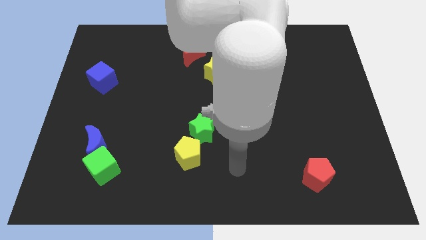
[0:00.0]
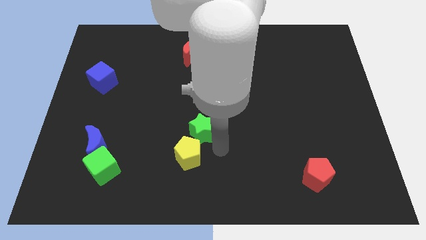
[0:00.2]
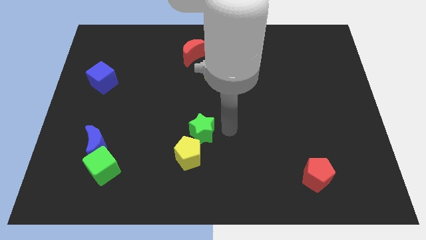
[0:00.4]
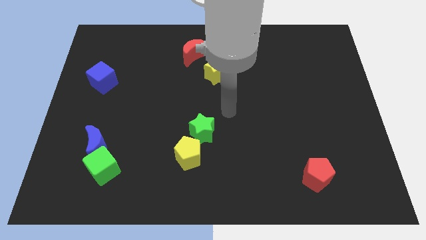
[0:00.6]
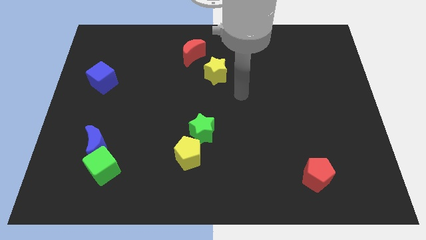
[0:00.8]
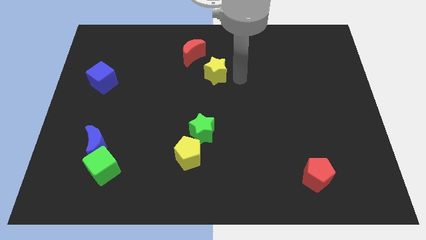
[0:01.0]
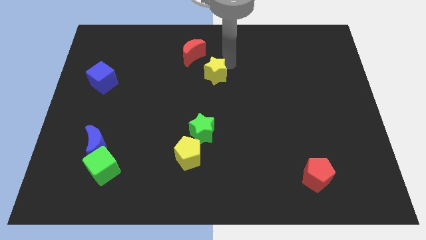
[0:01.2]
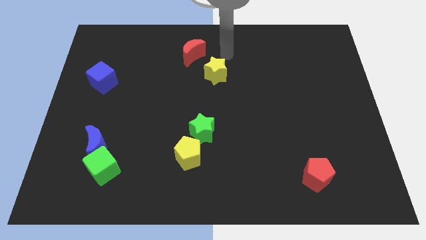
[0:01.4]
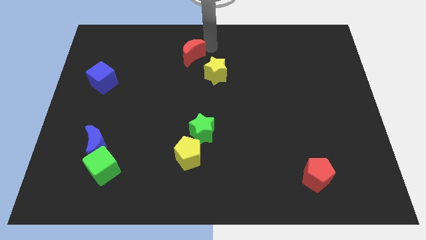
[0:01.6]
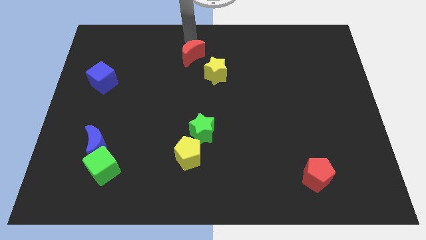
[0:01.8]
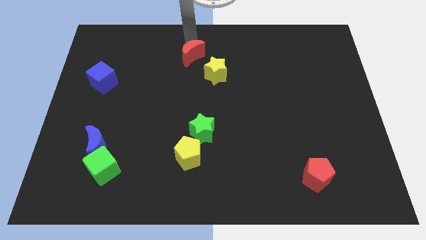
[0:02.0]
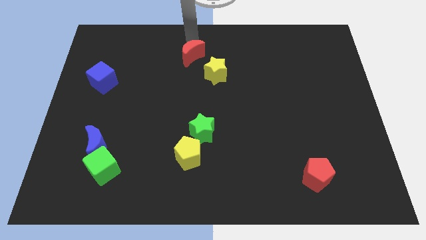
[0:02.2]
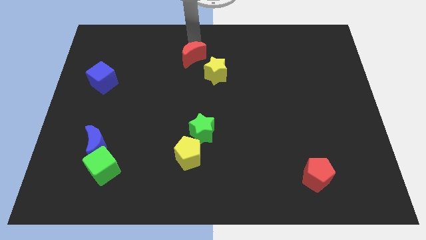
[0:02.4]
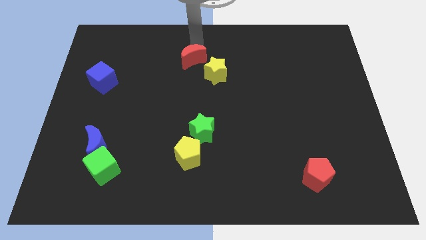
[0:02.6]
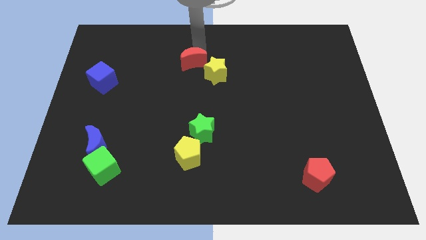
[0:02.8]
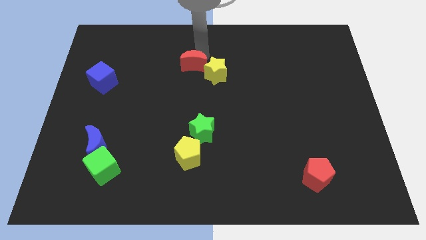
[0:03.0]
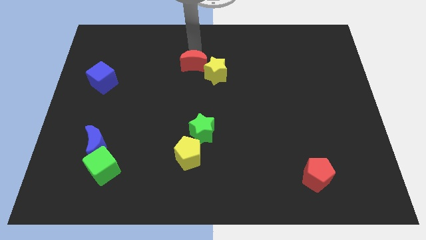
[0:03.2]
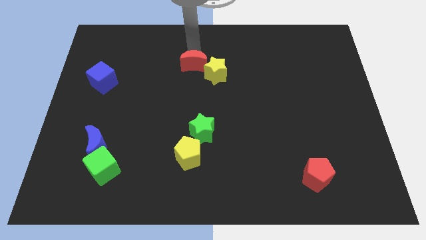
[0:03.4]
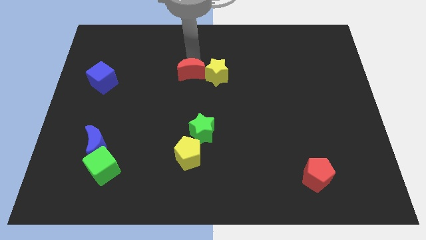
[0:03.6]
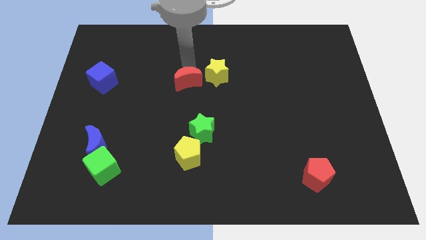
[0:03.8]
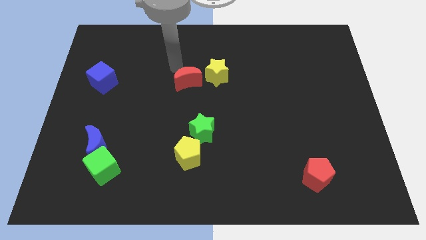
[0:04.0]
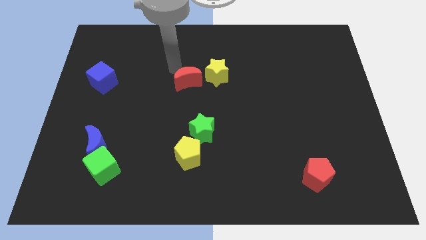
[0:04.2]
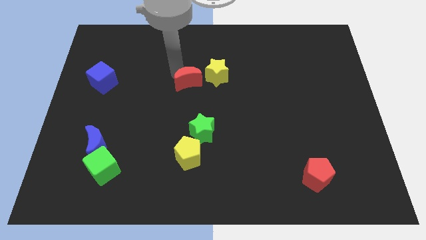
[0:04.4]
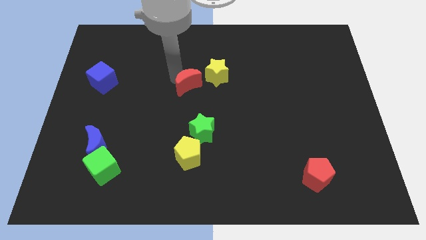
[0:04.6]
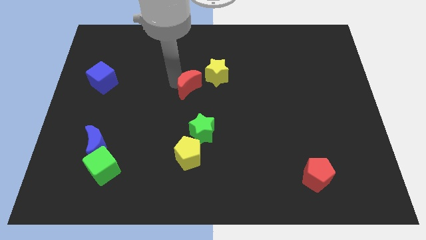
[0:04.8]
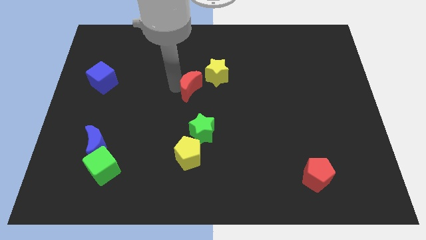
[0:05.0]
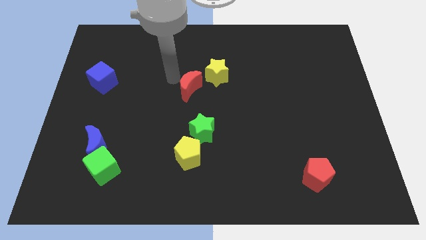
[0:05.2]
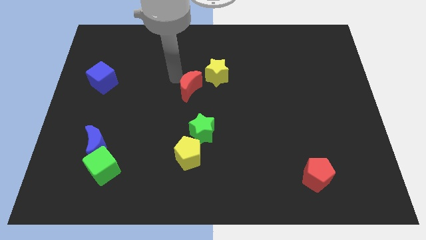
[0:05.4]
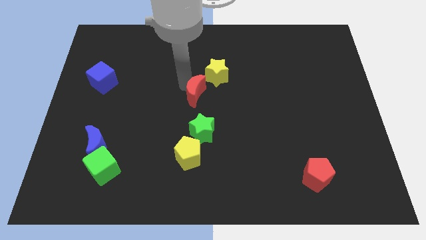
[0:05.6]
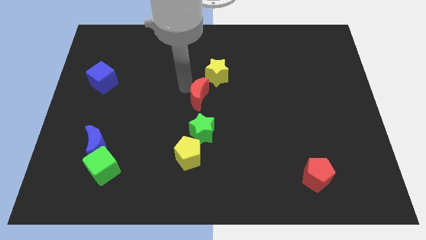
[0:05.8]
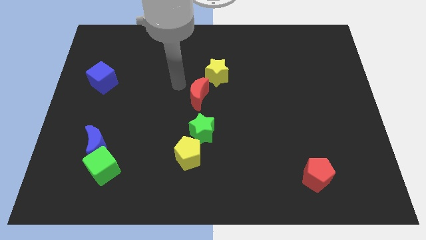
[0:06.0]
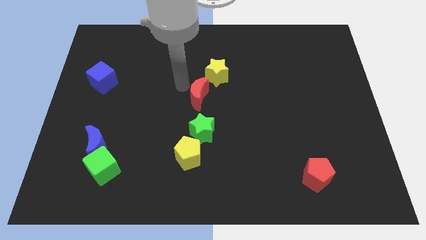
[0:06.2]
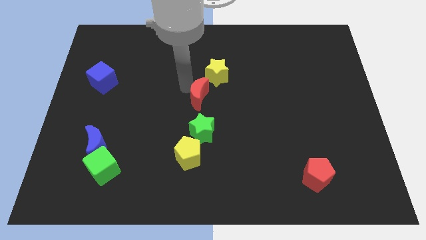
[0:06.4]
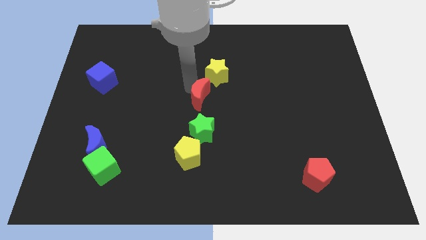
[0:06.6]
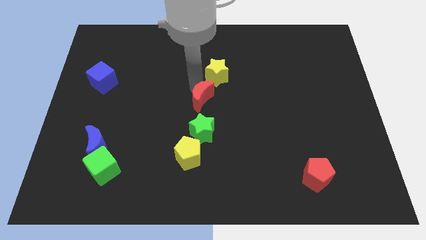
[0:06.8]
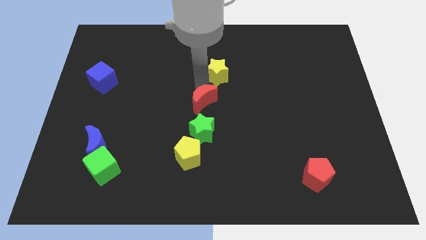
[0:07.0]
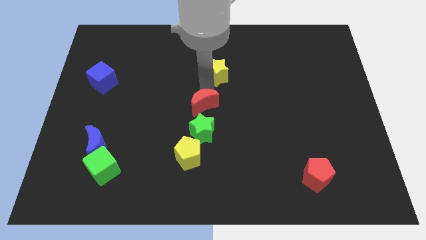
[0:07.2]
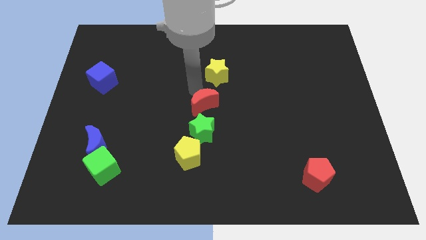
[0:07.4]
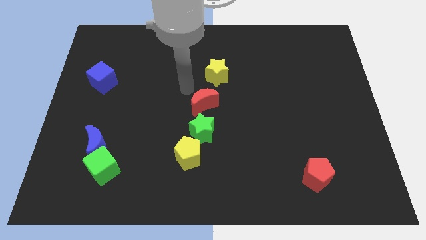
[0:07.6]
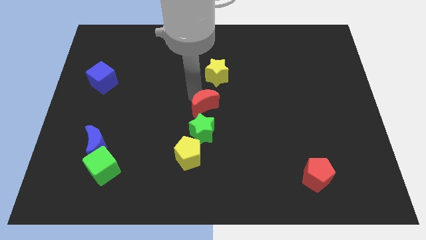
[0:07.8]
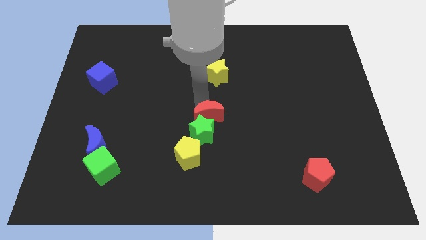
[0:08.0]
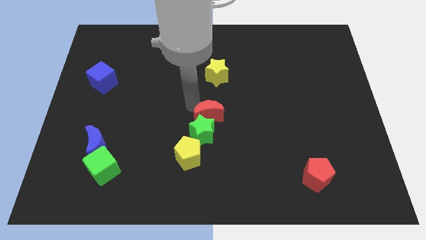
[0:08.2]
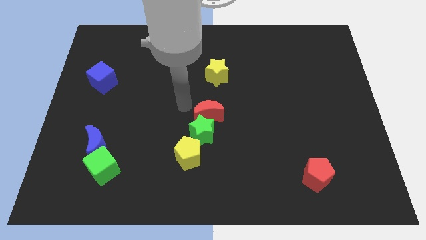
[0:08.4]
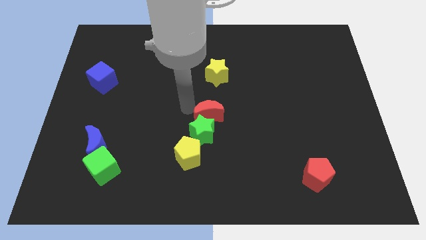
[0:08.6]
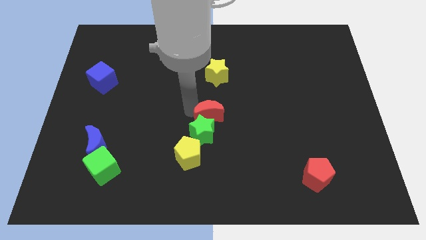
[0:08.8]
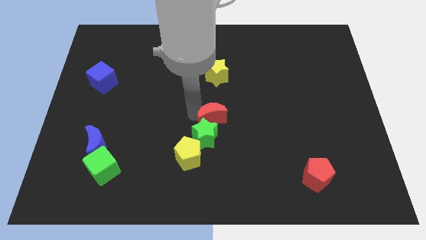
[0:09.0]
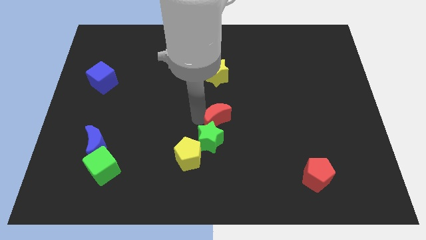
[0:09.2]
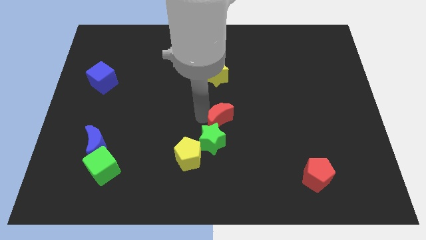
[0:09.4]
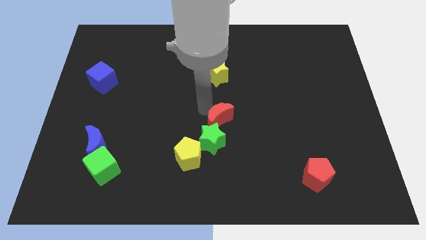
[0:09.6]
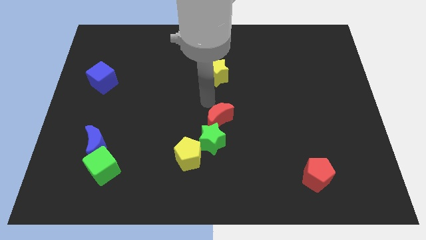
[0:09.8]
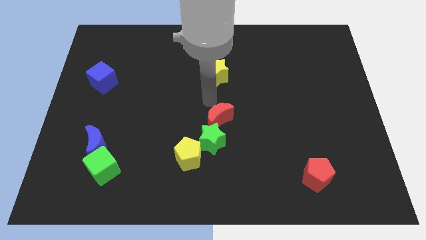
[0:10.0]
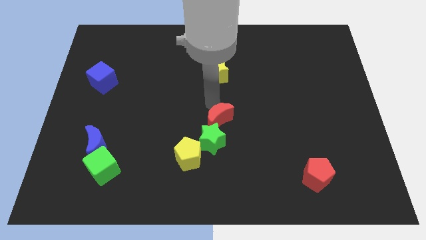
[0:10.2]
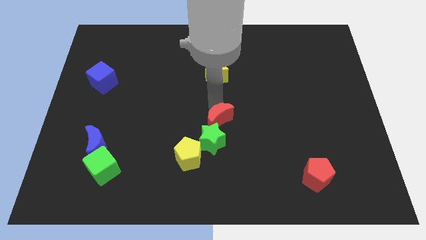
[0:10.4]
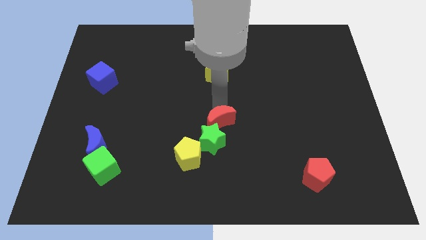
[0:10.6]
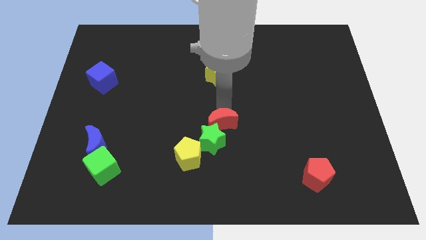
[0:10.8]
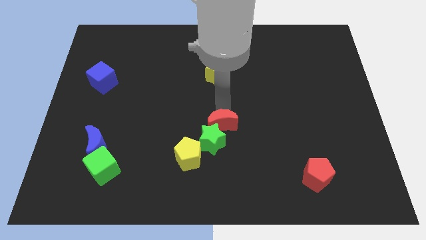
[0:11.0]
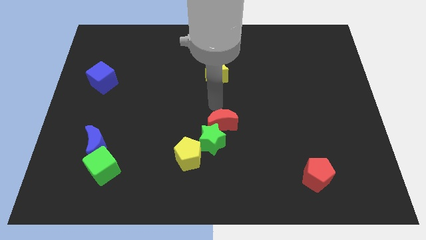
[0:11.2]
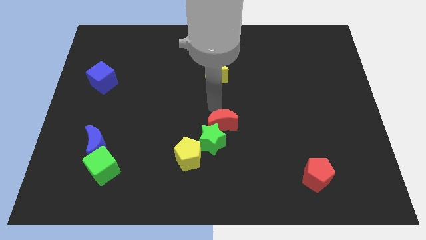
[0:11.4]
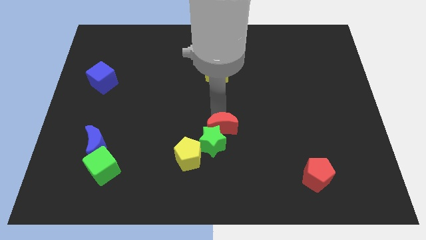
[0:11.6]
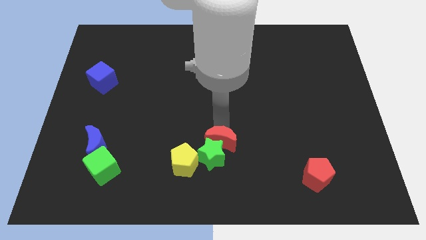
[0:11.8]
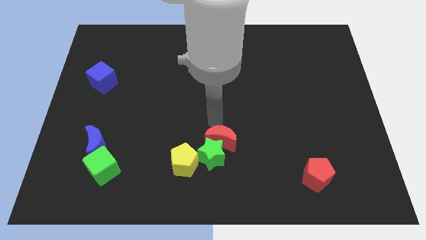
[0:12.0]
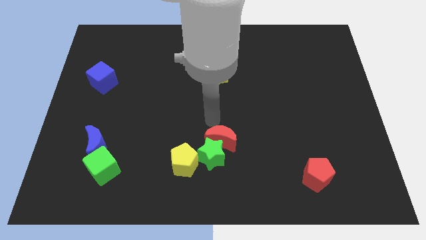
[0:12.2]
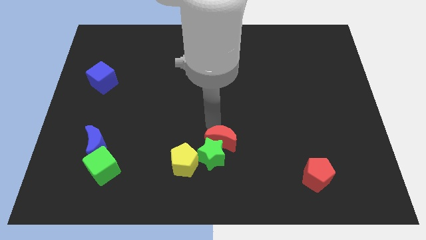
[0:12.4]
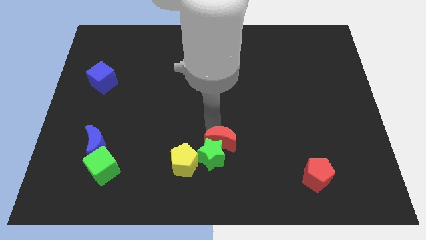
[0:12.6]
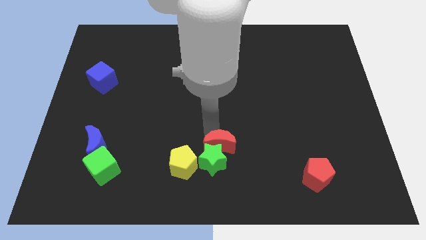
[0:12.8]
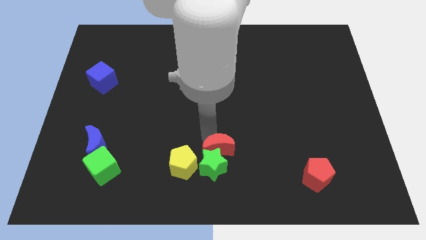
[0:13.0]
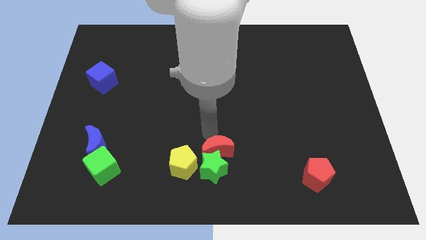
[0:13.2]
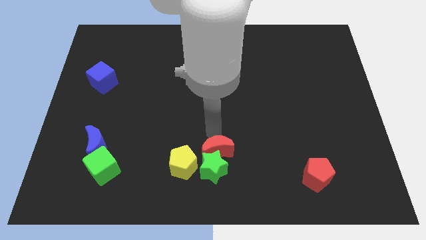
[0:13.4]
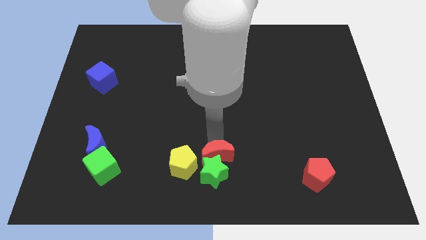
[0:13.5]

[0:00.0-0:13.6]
move the red moon to the bottom side
